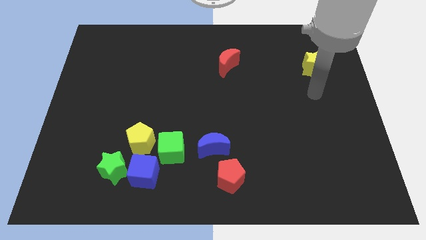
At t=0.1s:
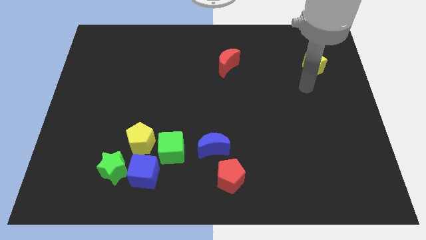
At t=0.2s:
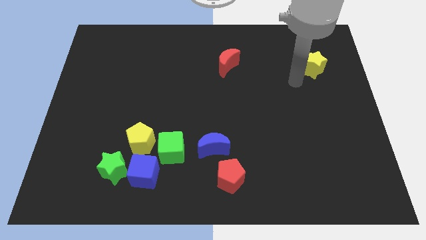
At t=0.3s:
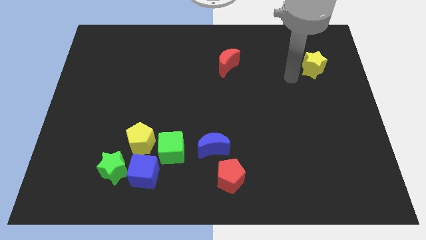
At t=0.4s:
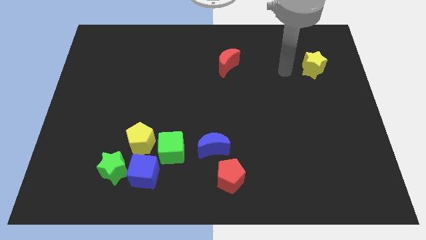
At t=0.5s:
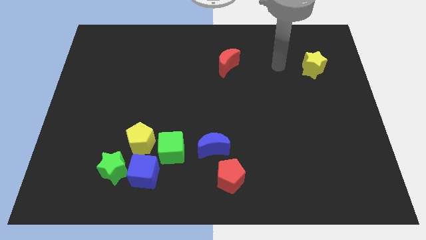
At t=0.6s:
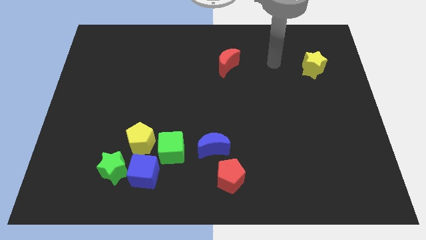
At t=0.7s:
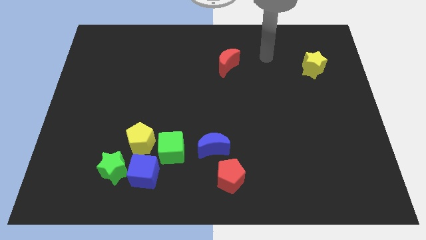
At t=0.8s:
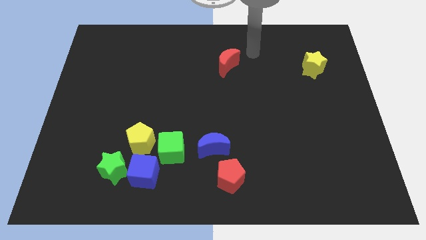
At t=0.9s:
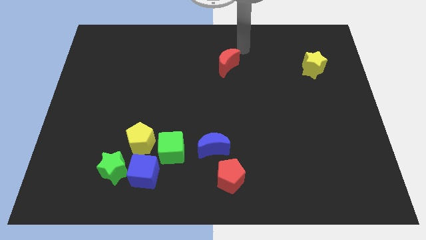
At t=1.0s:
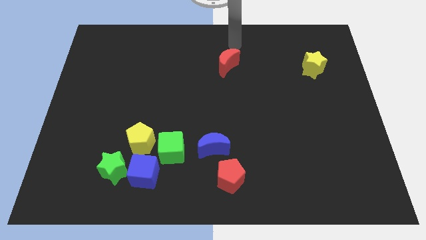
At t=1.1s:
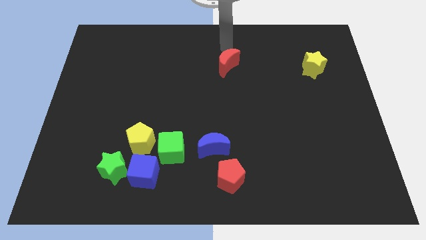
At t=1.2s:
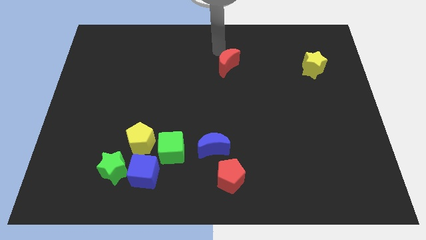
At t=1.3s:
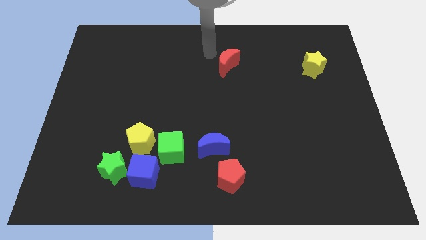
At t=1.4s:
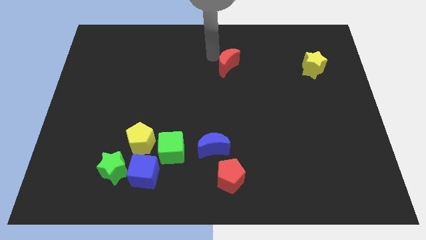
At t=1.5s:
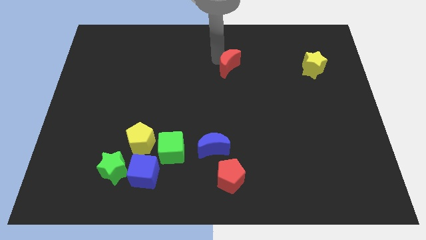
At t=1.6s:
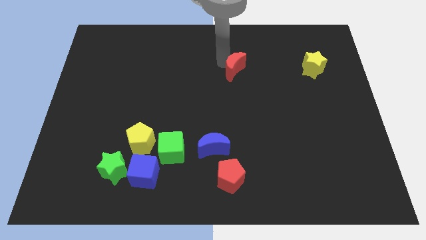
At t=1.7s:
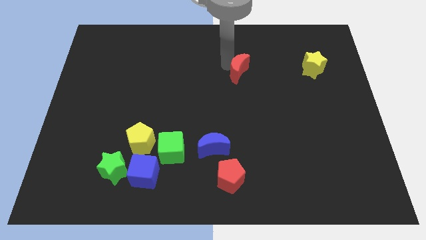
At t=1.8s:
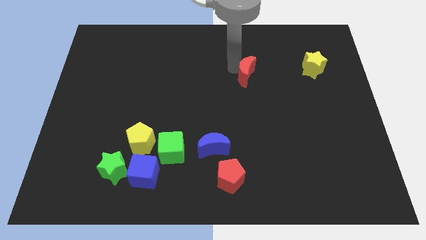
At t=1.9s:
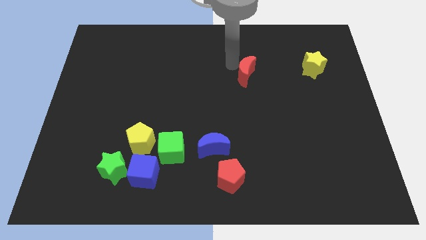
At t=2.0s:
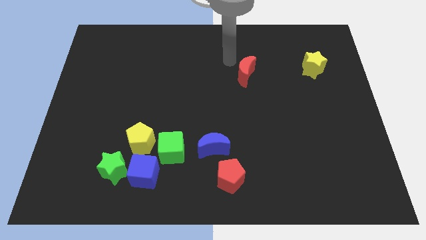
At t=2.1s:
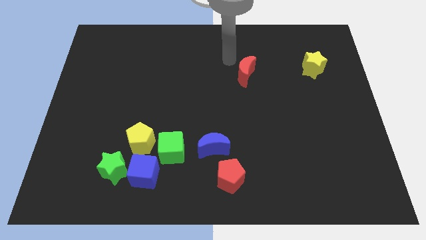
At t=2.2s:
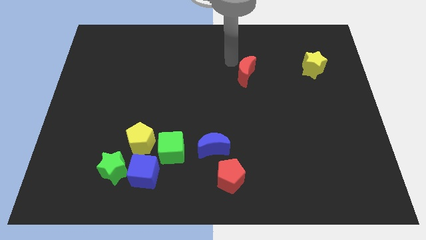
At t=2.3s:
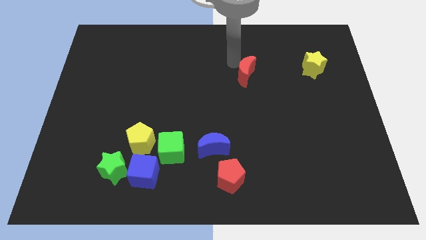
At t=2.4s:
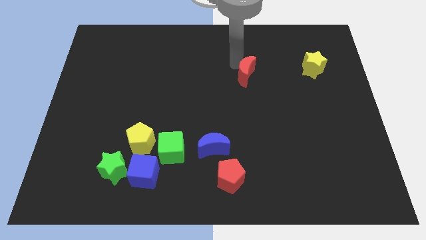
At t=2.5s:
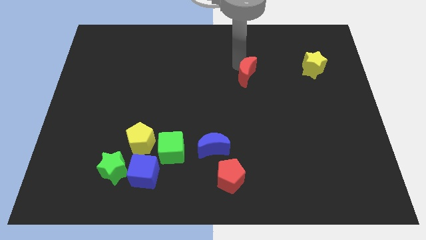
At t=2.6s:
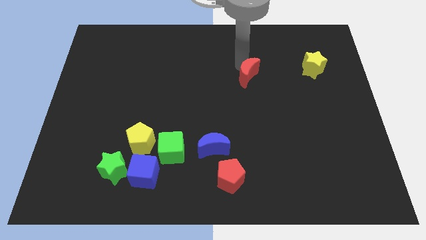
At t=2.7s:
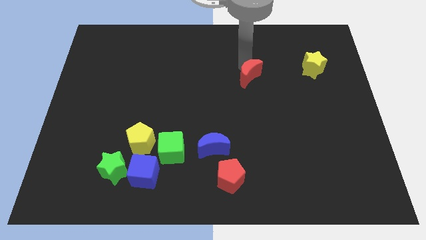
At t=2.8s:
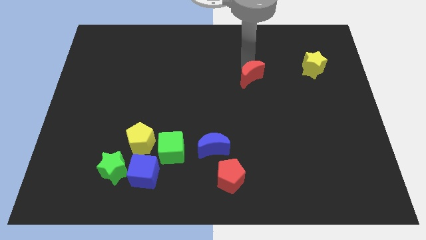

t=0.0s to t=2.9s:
slide the red moon a bit down and right

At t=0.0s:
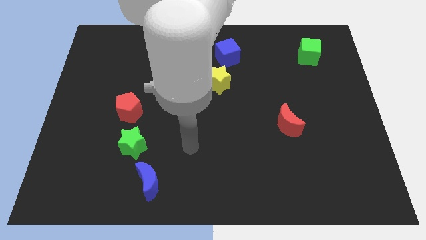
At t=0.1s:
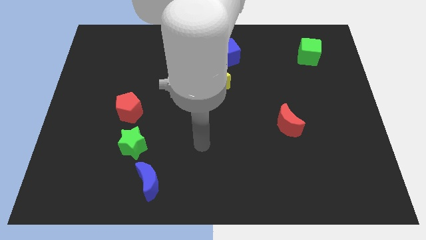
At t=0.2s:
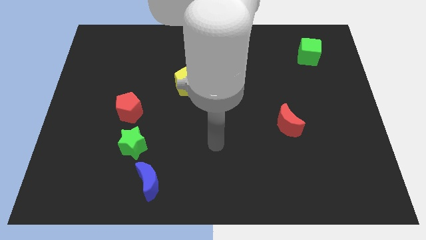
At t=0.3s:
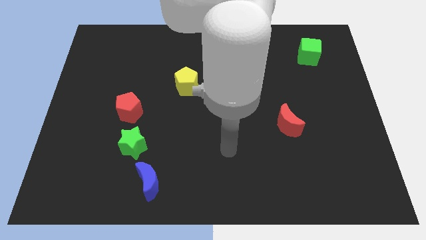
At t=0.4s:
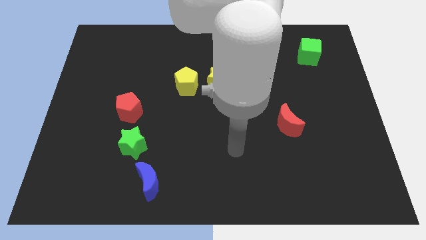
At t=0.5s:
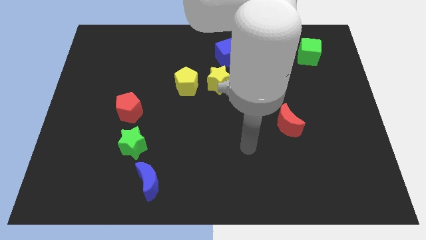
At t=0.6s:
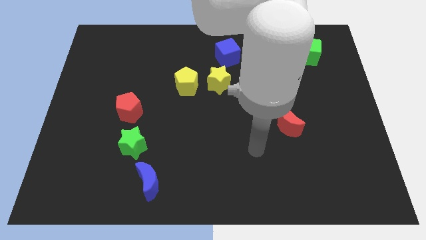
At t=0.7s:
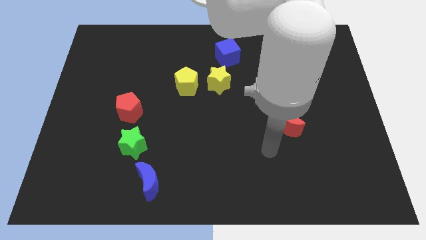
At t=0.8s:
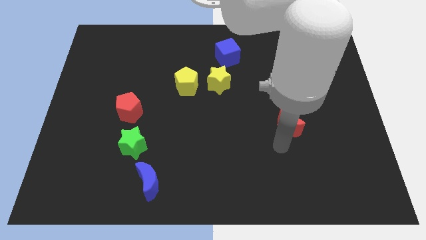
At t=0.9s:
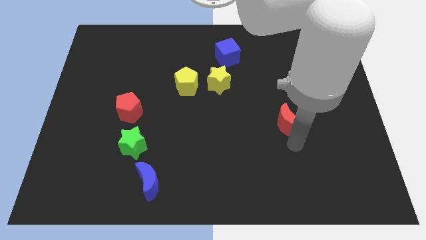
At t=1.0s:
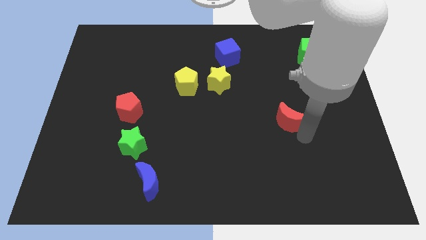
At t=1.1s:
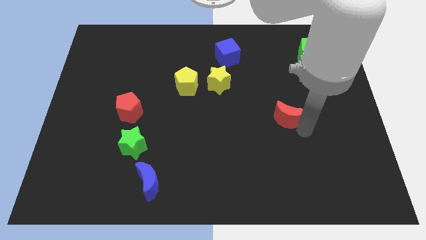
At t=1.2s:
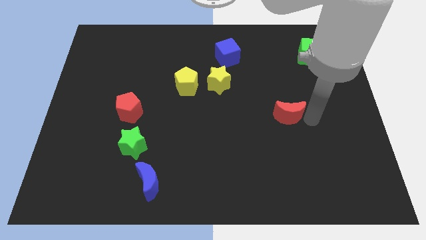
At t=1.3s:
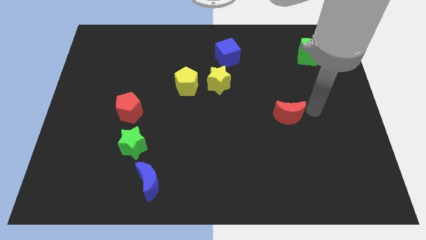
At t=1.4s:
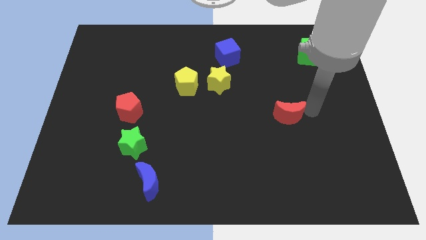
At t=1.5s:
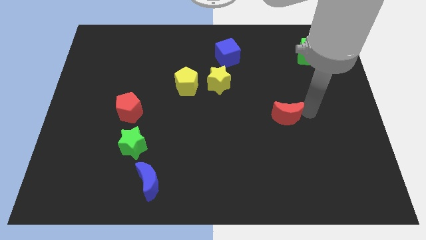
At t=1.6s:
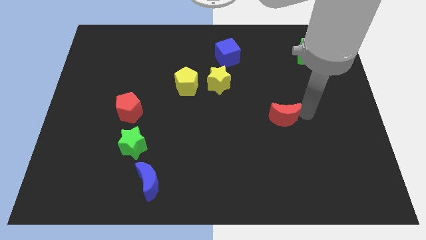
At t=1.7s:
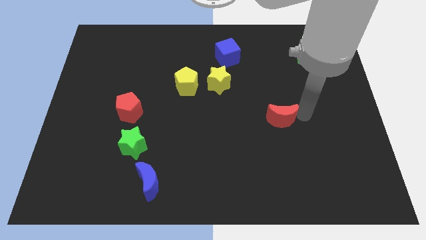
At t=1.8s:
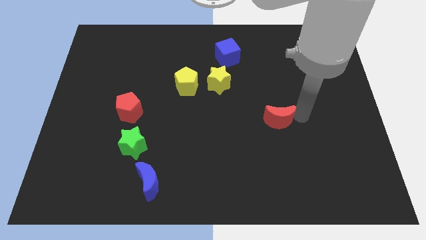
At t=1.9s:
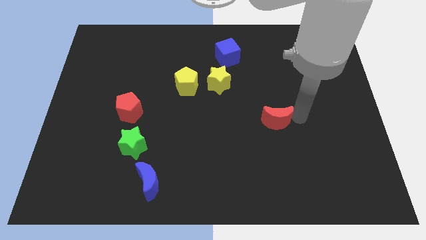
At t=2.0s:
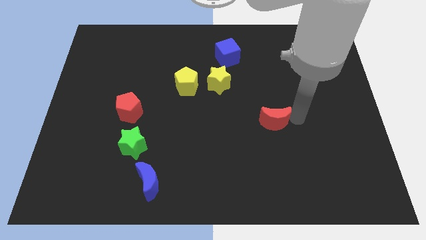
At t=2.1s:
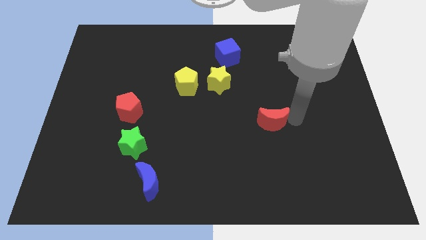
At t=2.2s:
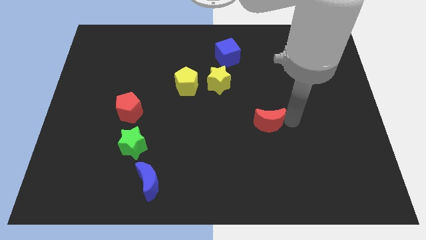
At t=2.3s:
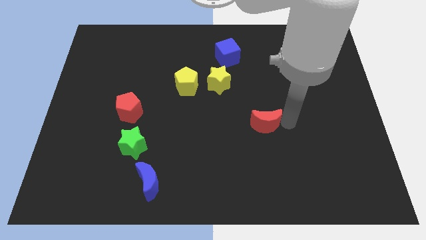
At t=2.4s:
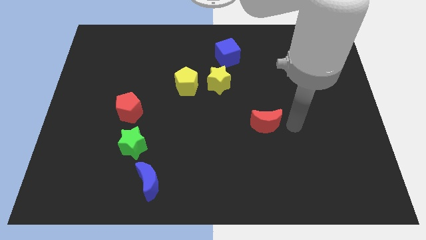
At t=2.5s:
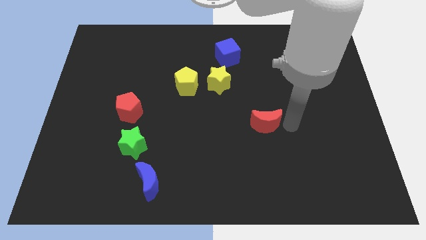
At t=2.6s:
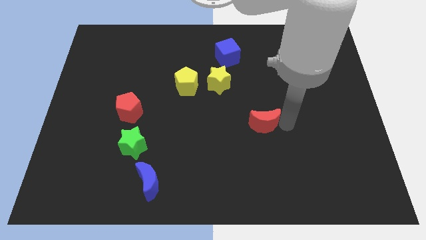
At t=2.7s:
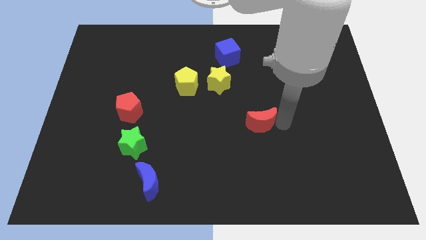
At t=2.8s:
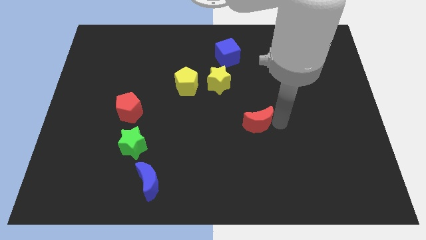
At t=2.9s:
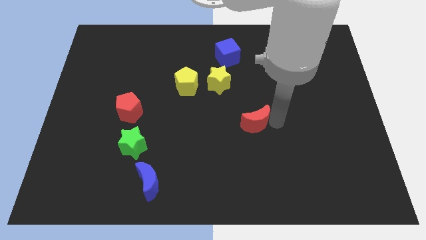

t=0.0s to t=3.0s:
push the red moon left somewhat

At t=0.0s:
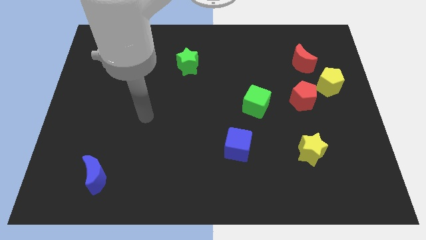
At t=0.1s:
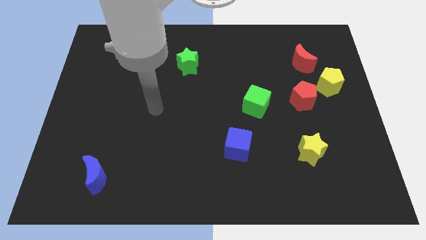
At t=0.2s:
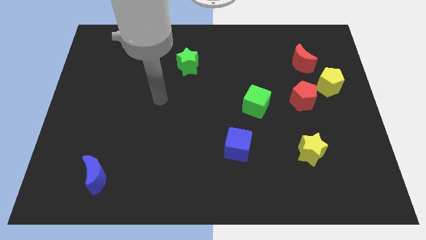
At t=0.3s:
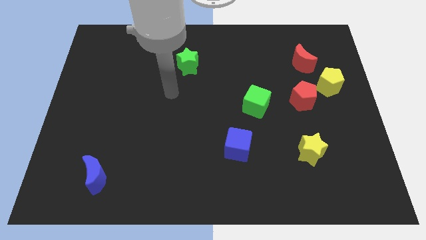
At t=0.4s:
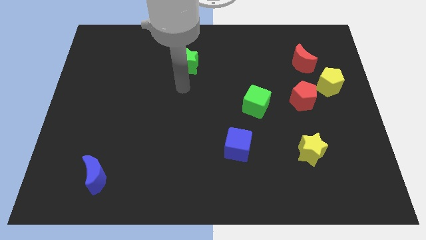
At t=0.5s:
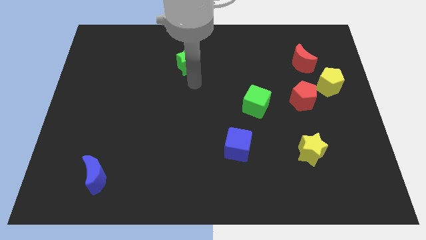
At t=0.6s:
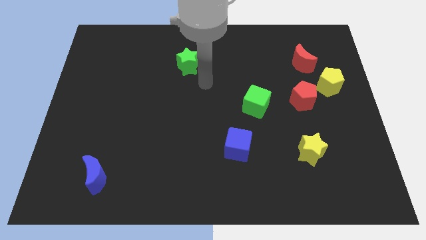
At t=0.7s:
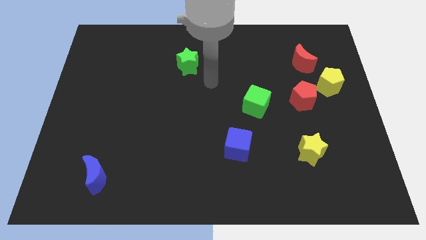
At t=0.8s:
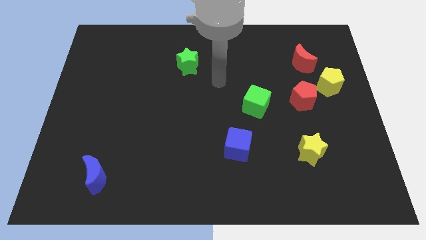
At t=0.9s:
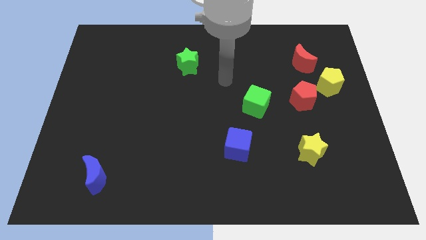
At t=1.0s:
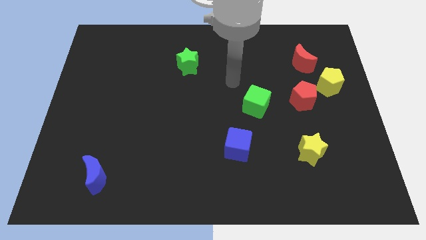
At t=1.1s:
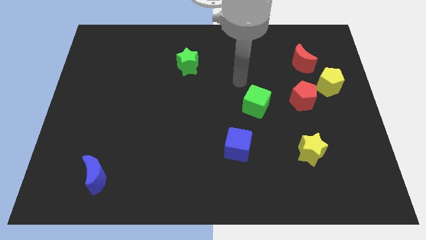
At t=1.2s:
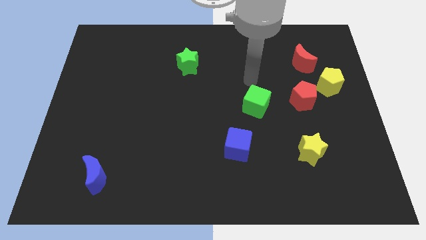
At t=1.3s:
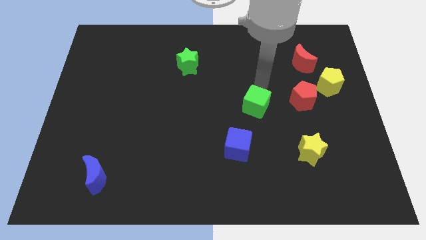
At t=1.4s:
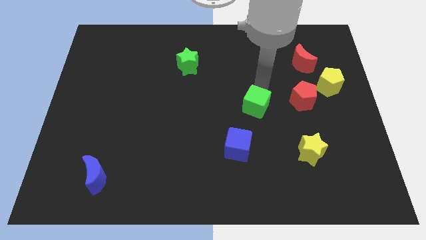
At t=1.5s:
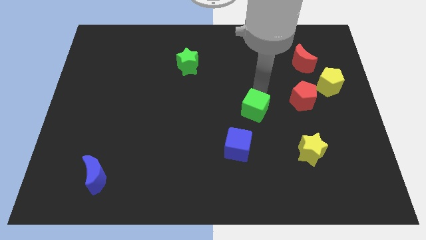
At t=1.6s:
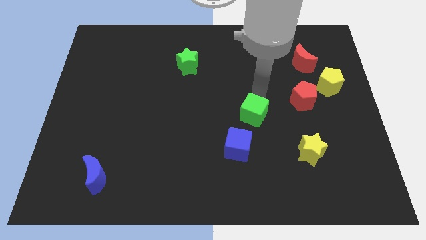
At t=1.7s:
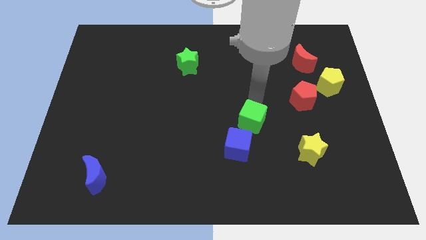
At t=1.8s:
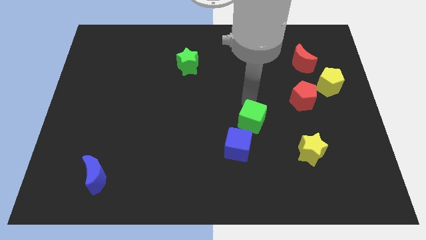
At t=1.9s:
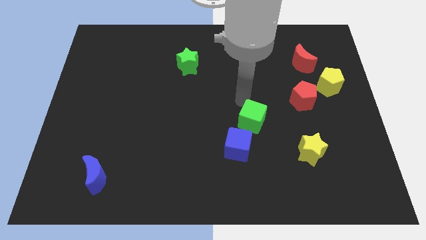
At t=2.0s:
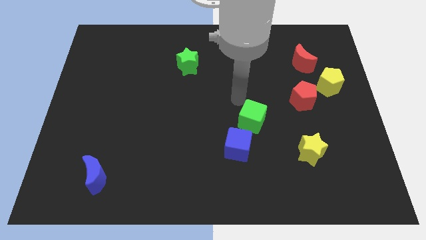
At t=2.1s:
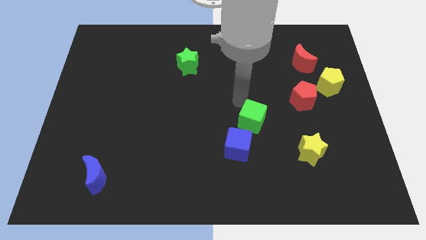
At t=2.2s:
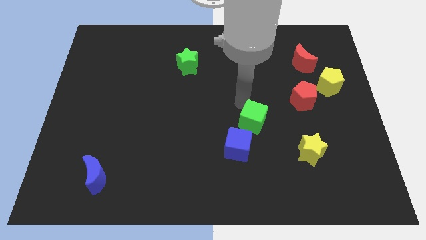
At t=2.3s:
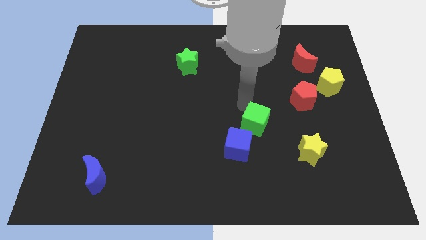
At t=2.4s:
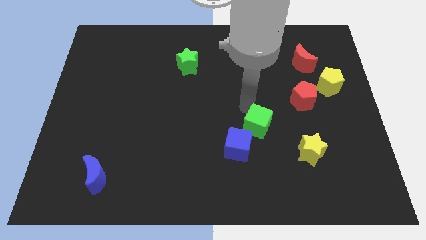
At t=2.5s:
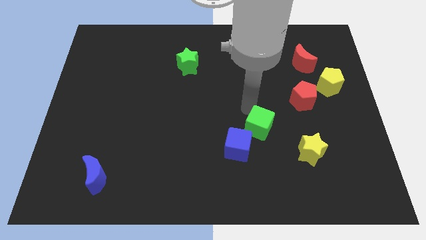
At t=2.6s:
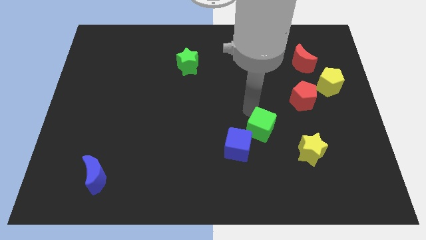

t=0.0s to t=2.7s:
slightly slide the green cube down
